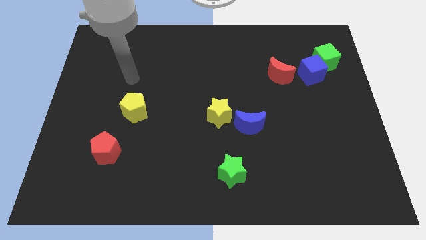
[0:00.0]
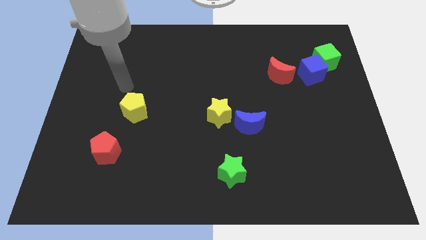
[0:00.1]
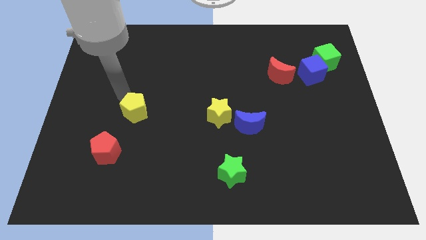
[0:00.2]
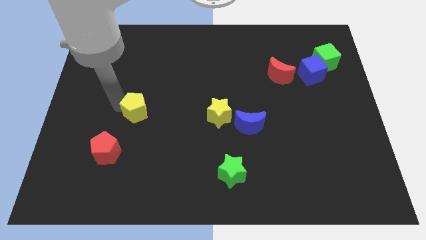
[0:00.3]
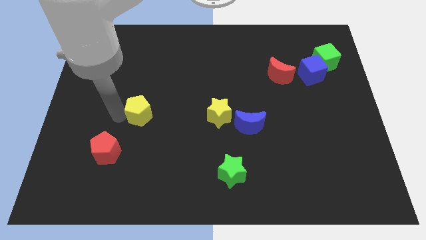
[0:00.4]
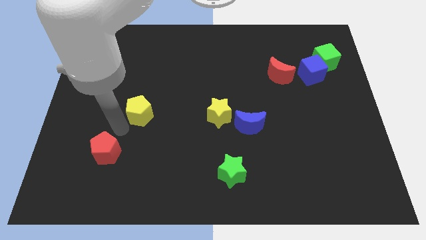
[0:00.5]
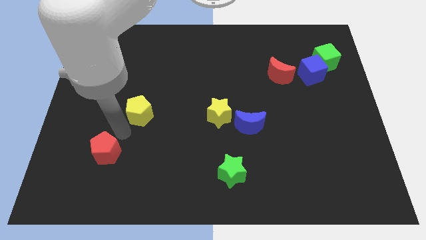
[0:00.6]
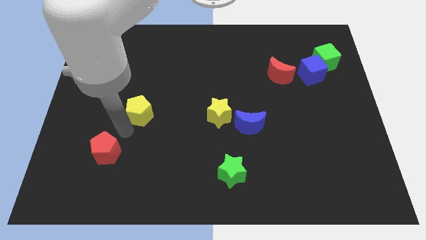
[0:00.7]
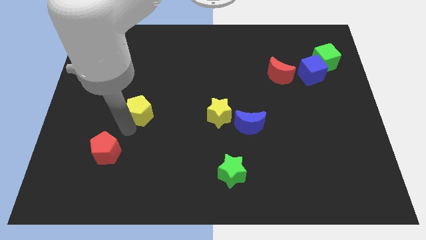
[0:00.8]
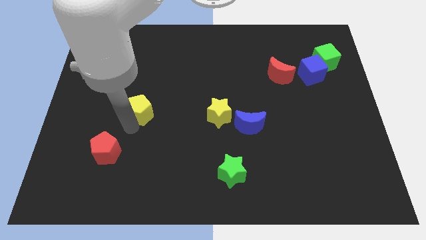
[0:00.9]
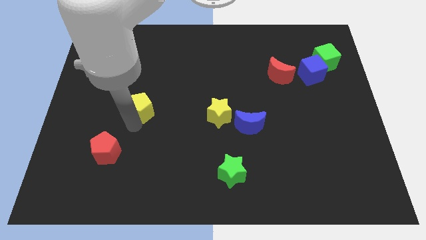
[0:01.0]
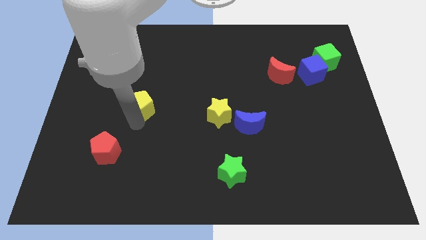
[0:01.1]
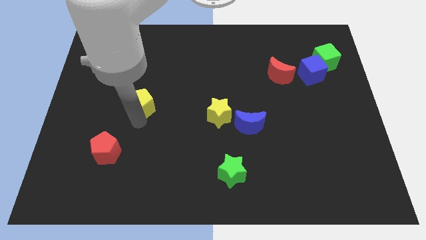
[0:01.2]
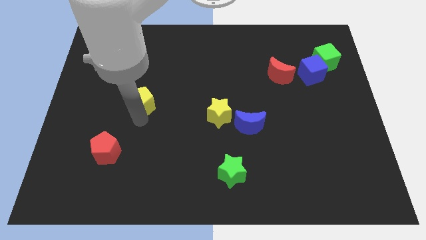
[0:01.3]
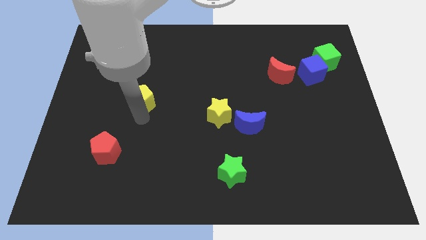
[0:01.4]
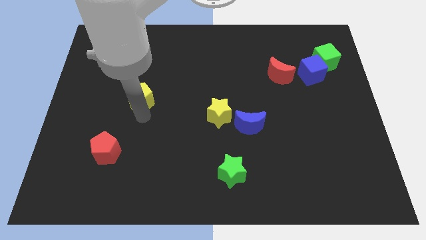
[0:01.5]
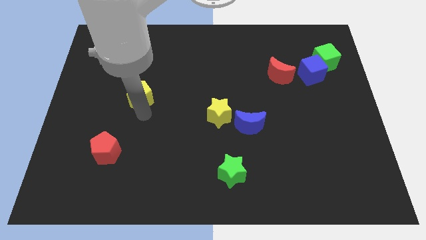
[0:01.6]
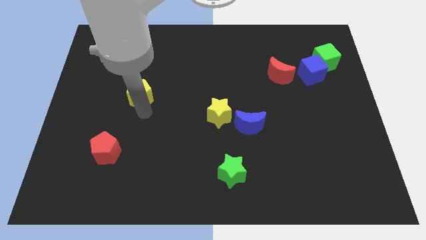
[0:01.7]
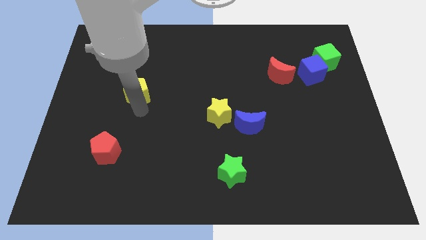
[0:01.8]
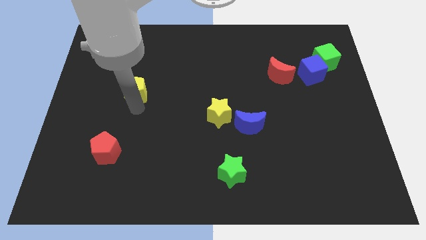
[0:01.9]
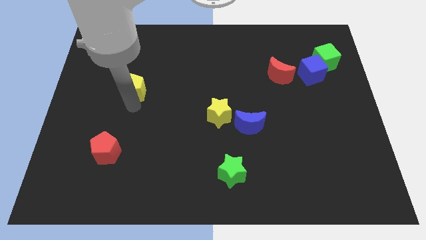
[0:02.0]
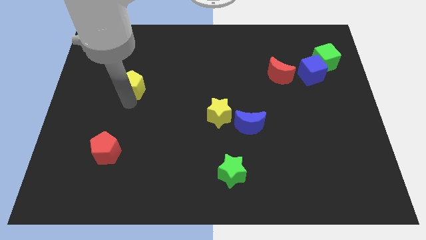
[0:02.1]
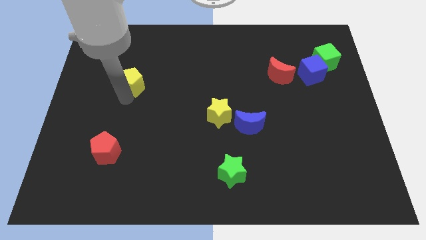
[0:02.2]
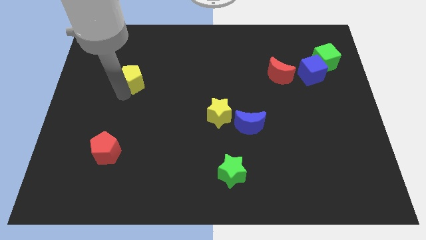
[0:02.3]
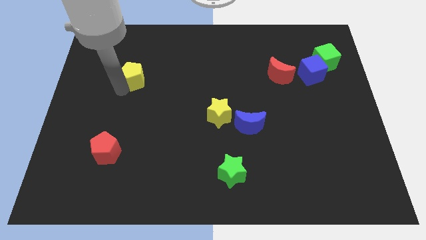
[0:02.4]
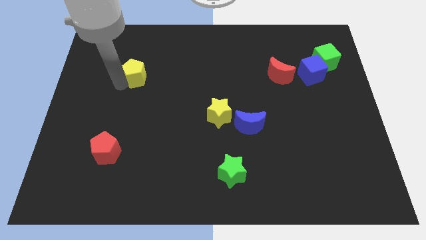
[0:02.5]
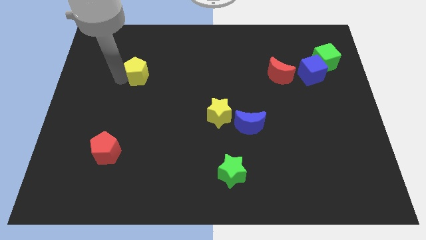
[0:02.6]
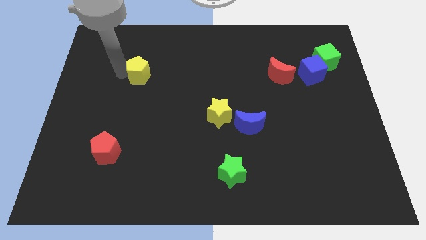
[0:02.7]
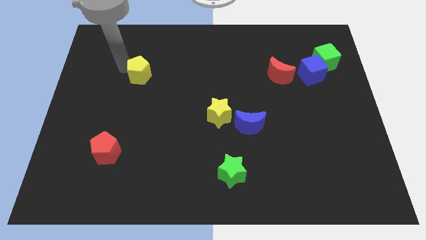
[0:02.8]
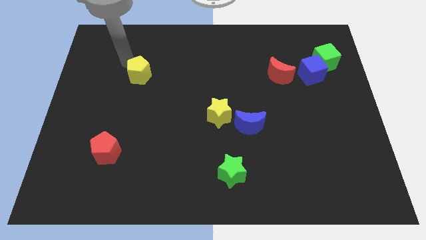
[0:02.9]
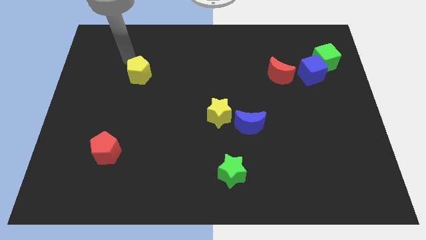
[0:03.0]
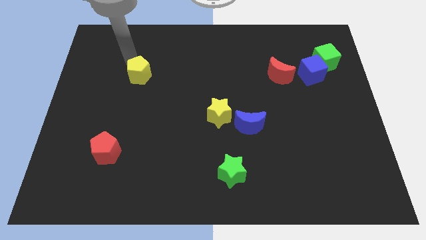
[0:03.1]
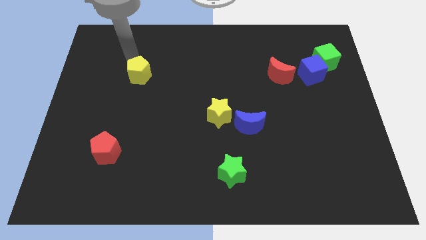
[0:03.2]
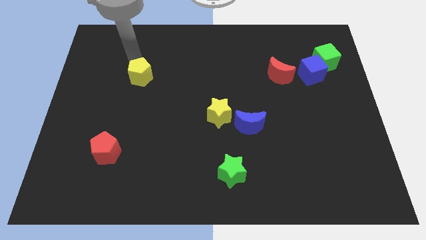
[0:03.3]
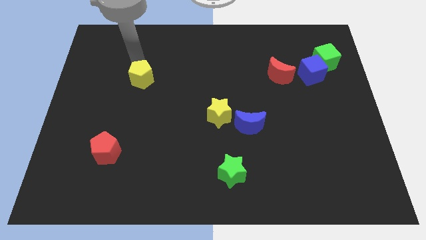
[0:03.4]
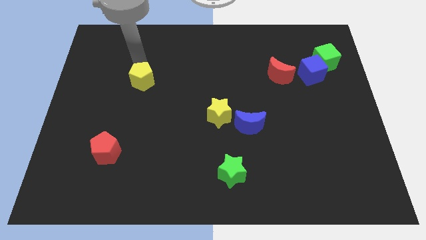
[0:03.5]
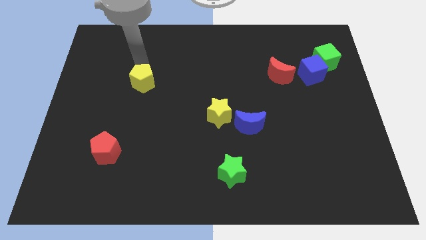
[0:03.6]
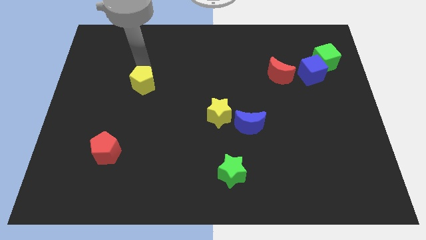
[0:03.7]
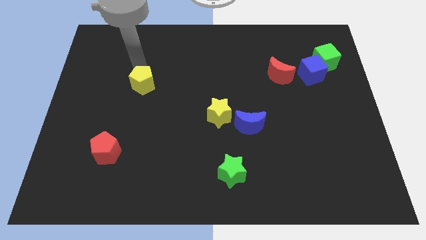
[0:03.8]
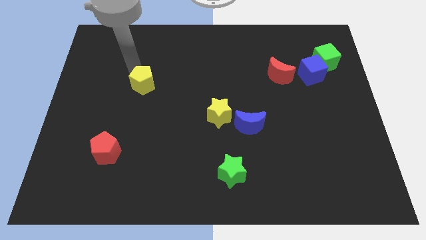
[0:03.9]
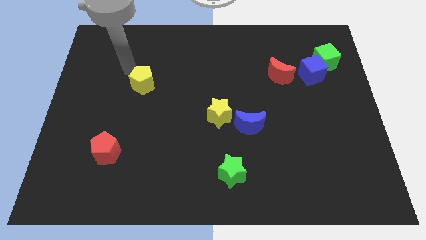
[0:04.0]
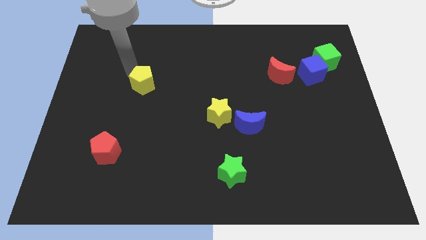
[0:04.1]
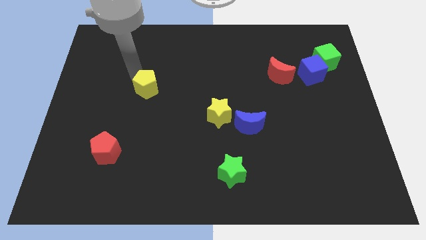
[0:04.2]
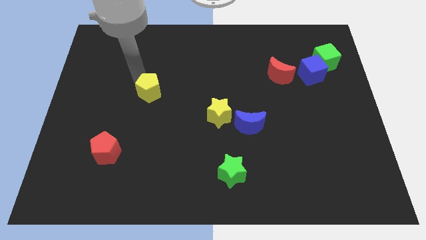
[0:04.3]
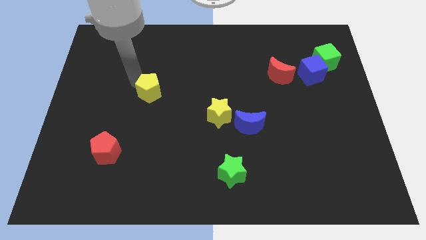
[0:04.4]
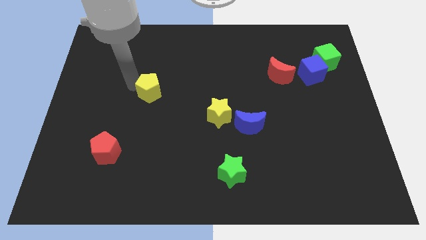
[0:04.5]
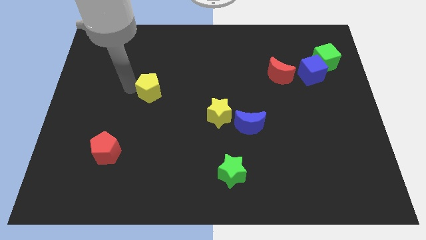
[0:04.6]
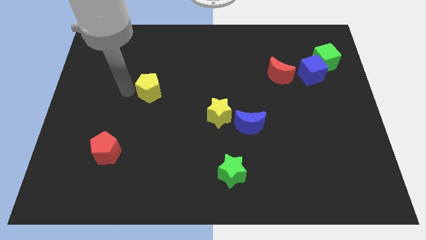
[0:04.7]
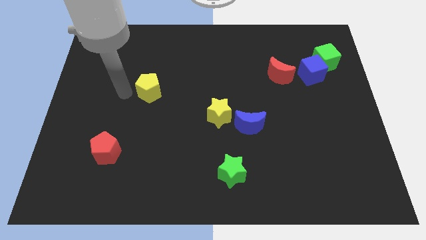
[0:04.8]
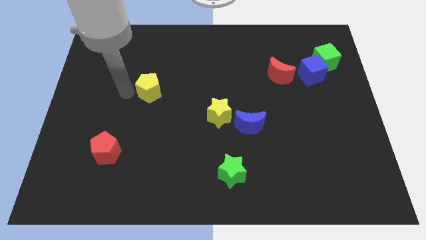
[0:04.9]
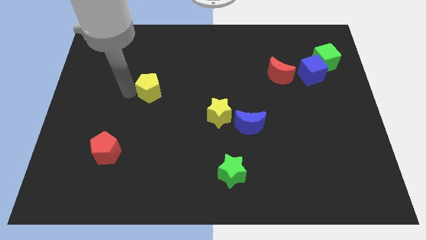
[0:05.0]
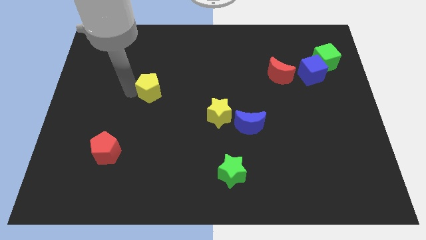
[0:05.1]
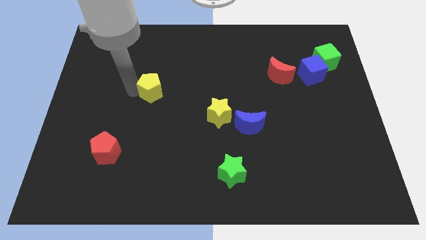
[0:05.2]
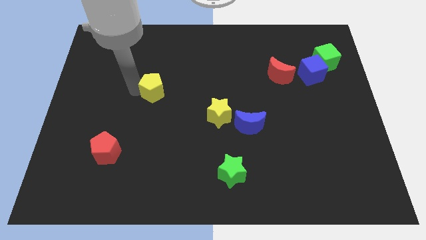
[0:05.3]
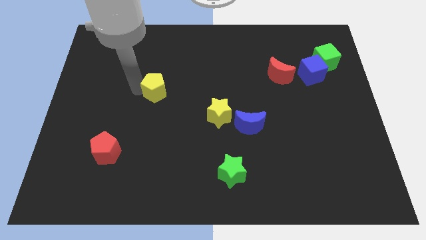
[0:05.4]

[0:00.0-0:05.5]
push the yellow pentagon diagonally upwards and to the right slightly

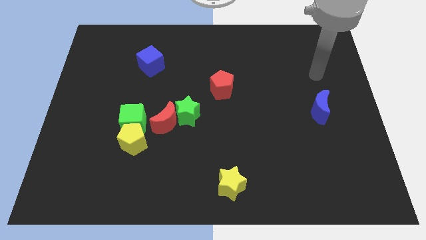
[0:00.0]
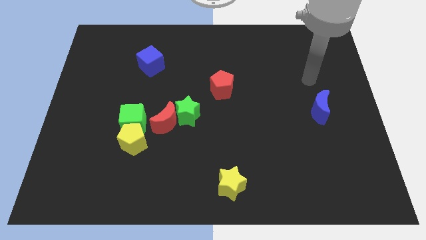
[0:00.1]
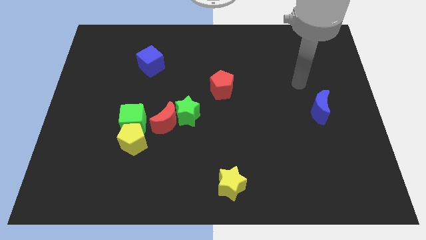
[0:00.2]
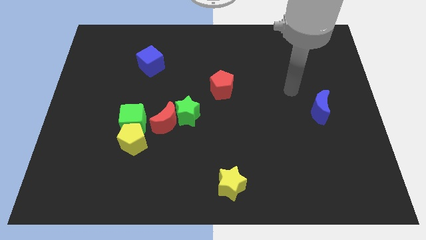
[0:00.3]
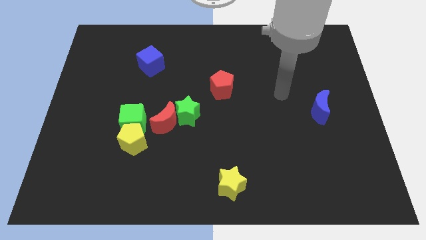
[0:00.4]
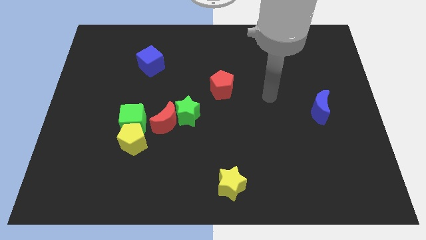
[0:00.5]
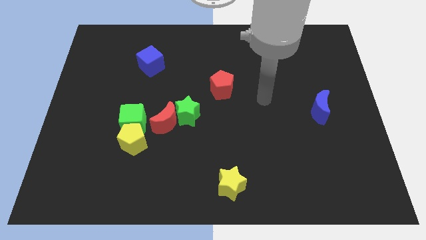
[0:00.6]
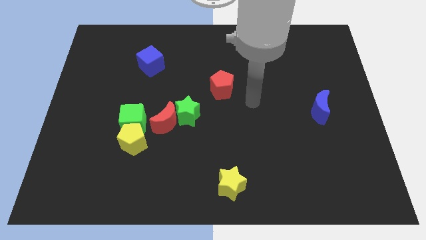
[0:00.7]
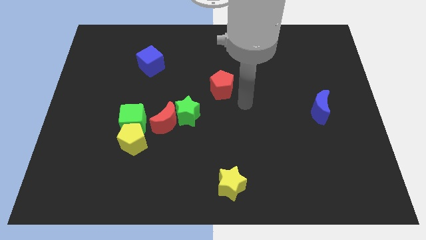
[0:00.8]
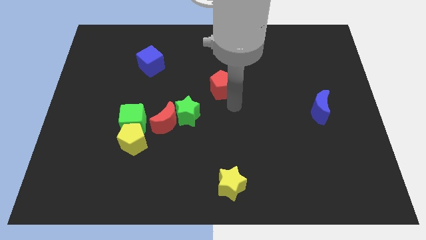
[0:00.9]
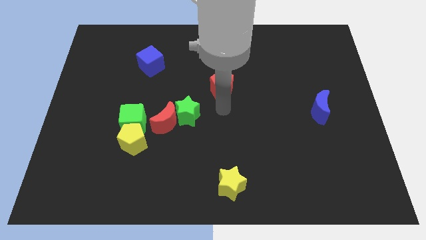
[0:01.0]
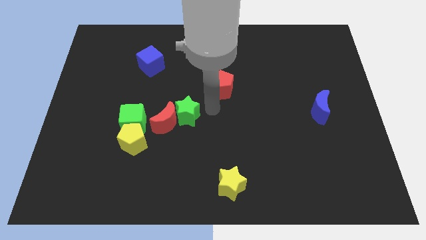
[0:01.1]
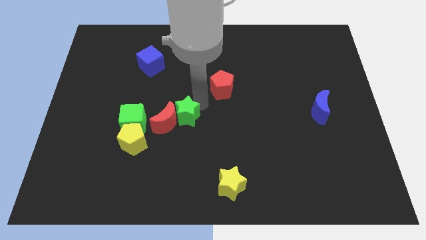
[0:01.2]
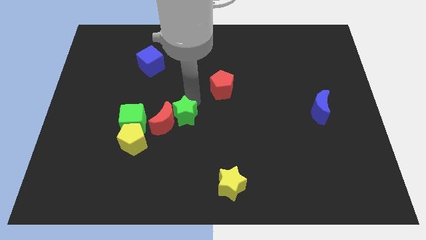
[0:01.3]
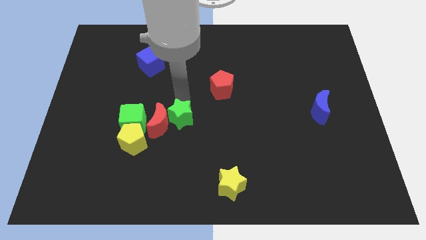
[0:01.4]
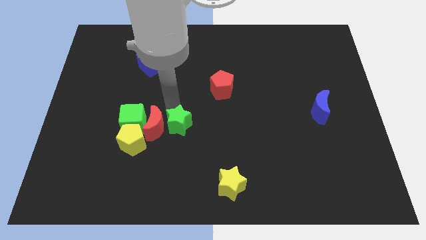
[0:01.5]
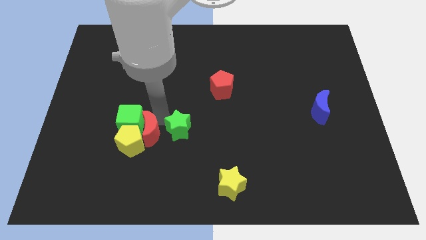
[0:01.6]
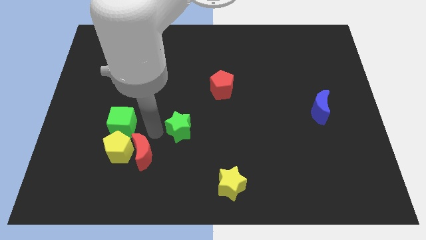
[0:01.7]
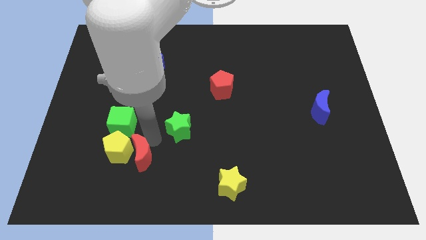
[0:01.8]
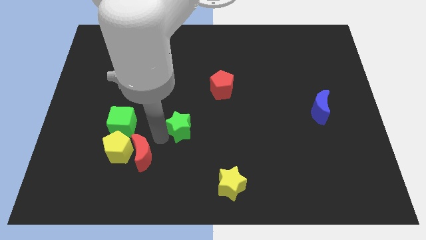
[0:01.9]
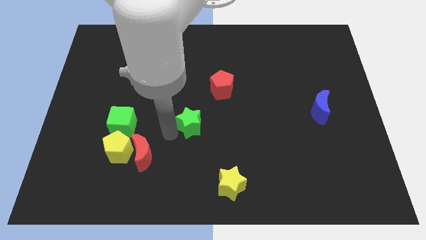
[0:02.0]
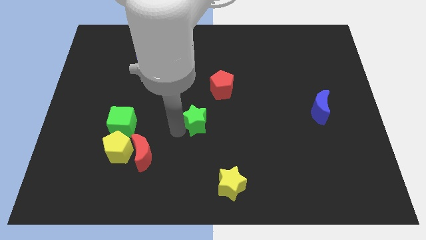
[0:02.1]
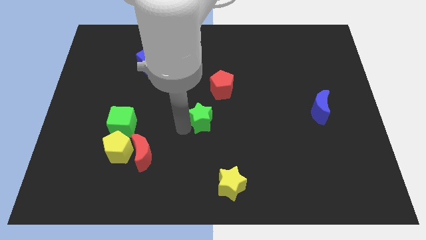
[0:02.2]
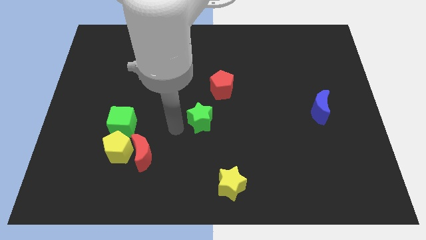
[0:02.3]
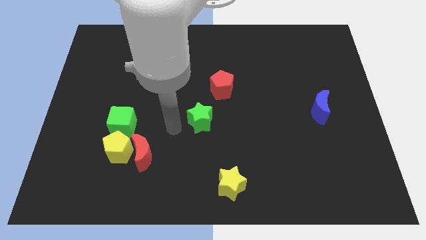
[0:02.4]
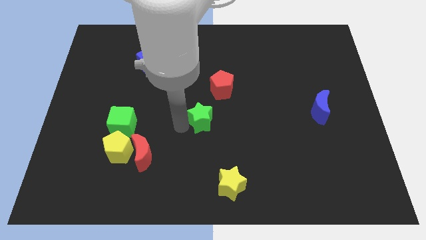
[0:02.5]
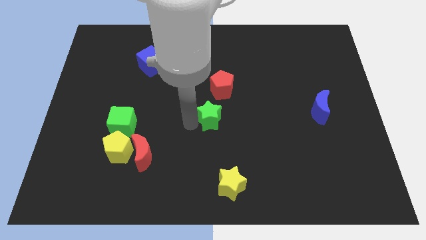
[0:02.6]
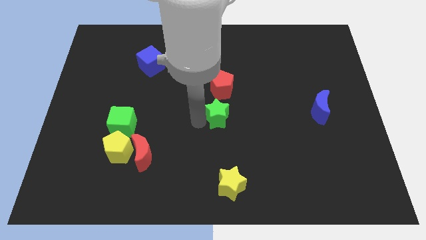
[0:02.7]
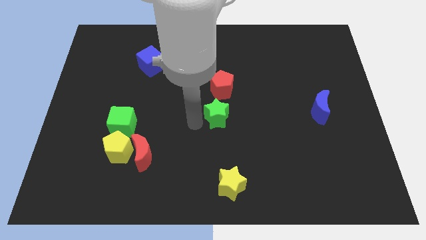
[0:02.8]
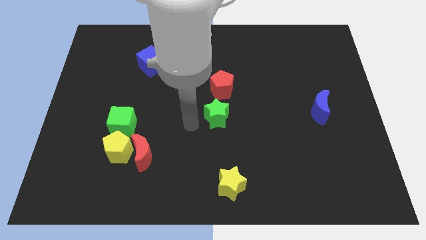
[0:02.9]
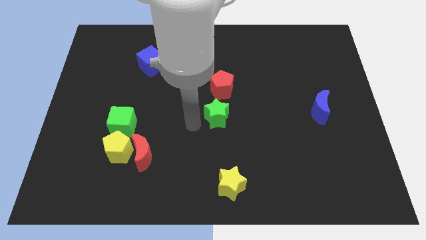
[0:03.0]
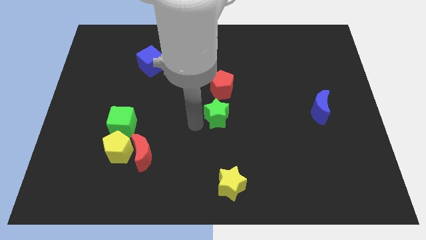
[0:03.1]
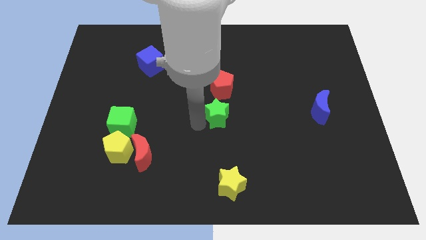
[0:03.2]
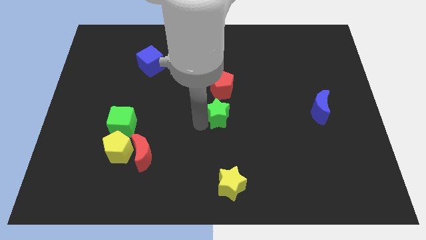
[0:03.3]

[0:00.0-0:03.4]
move the green star a little right
